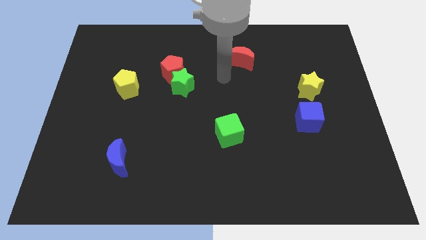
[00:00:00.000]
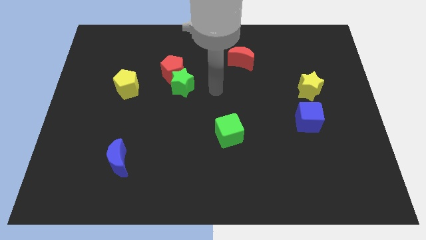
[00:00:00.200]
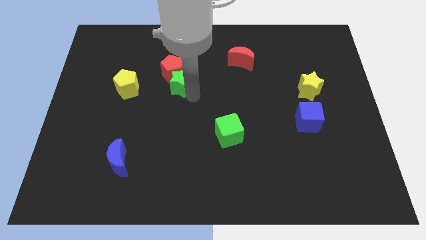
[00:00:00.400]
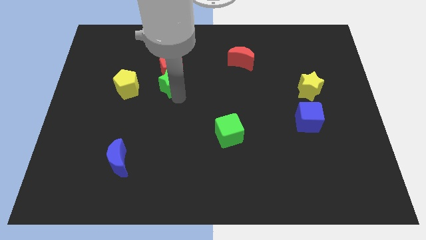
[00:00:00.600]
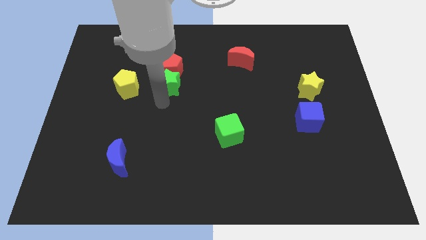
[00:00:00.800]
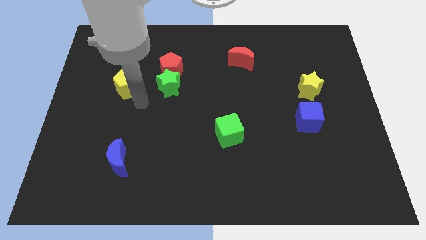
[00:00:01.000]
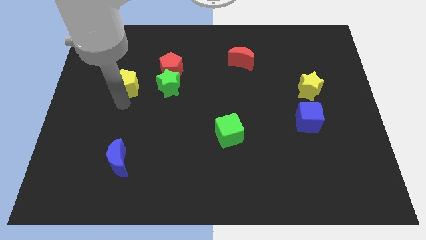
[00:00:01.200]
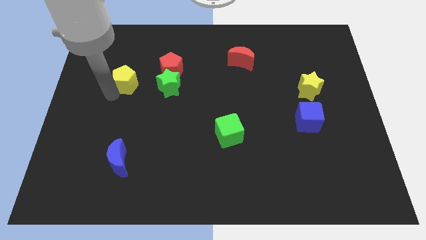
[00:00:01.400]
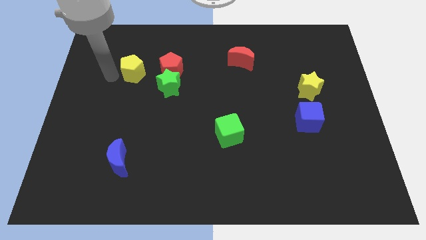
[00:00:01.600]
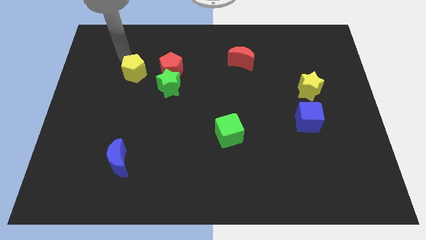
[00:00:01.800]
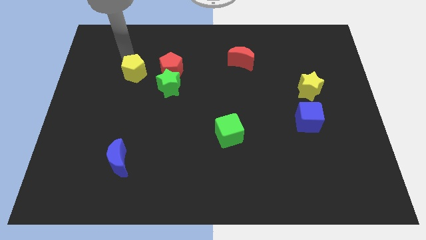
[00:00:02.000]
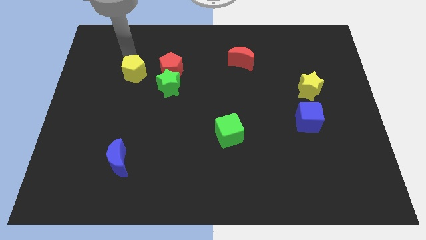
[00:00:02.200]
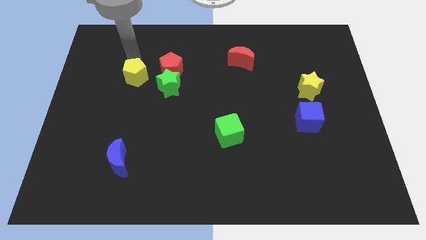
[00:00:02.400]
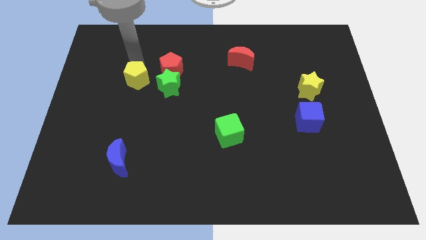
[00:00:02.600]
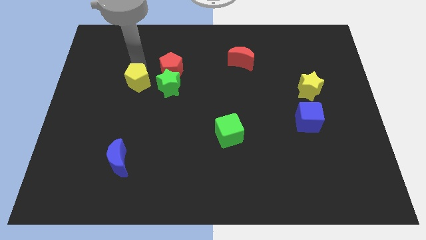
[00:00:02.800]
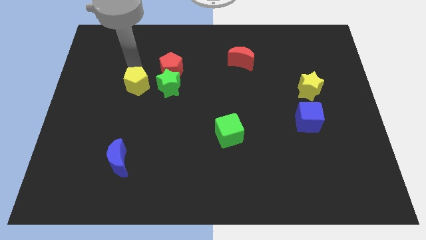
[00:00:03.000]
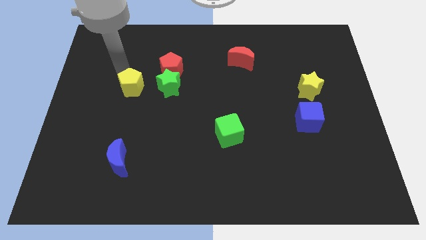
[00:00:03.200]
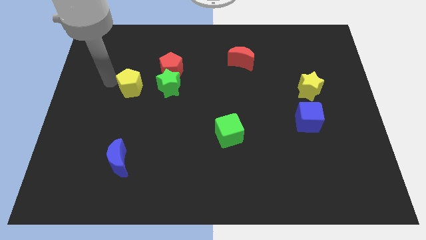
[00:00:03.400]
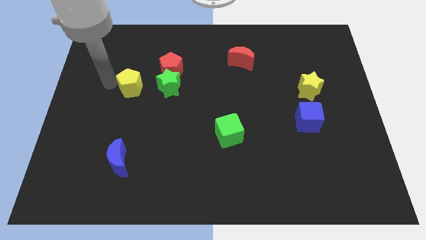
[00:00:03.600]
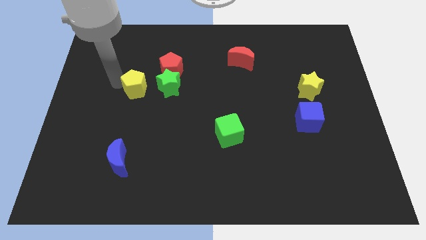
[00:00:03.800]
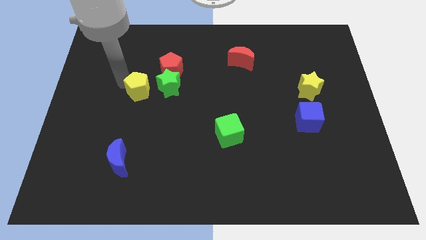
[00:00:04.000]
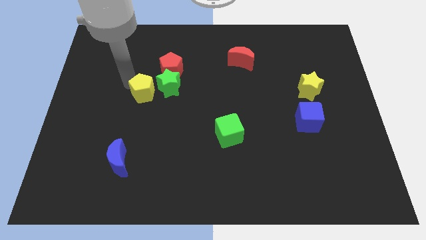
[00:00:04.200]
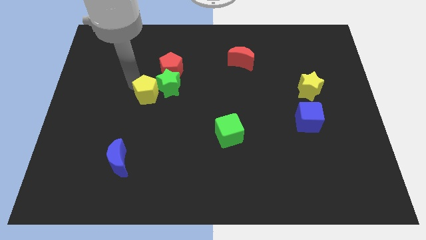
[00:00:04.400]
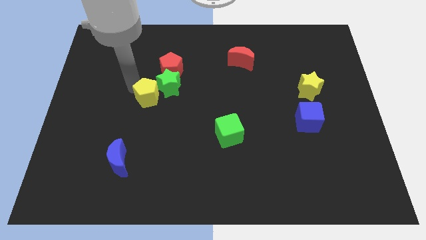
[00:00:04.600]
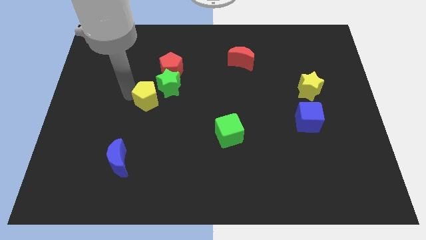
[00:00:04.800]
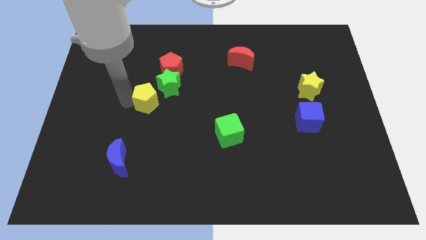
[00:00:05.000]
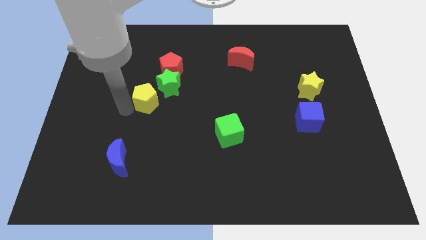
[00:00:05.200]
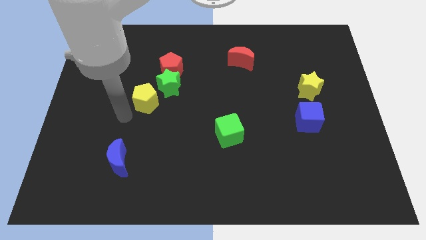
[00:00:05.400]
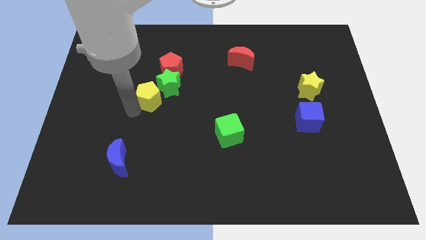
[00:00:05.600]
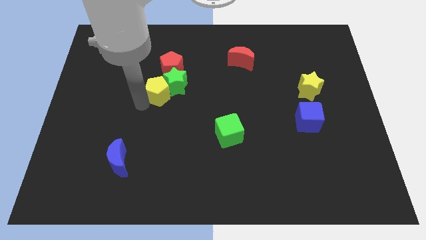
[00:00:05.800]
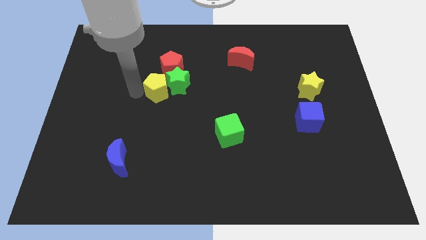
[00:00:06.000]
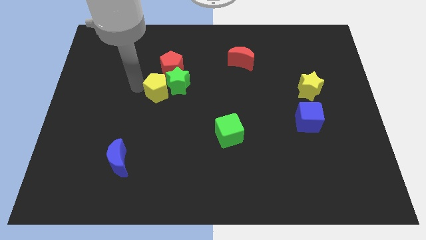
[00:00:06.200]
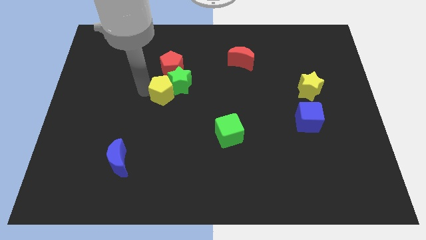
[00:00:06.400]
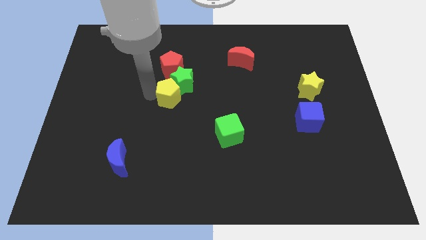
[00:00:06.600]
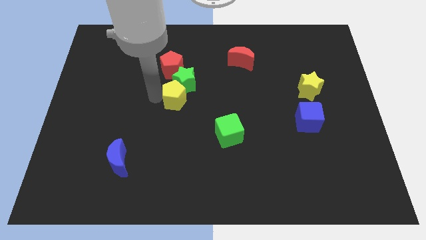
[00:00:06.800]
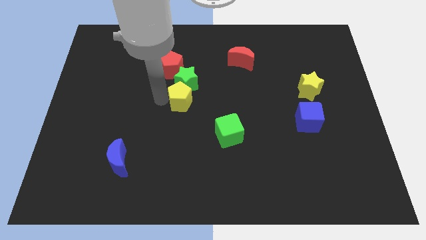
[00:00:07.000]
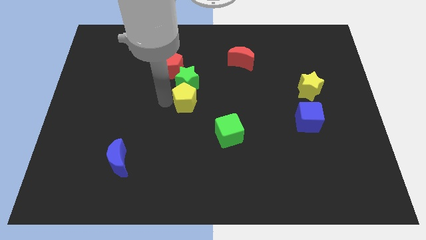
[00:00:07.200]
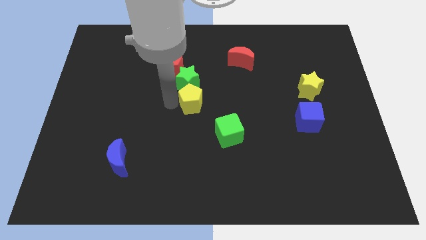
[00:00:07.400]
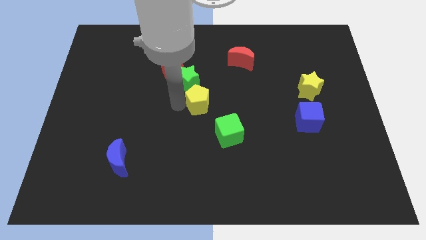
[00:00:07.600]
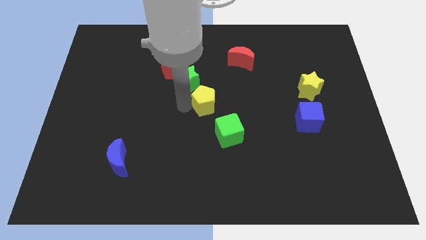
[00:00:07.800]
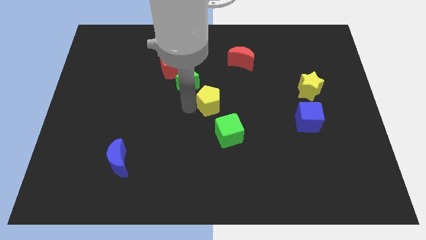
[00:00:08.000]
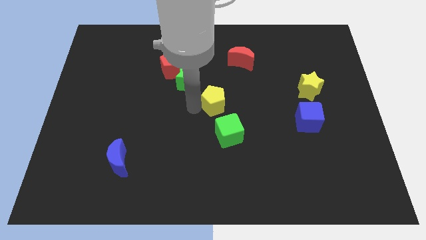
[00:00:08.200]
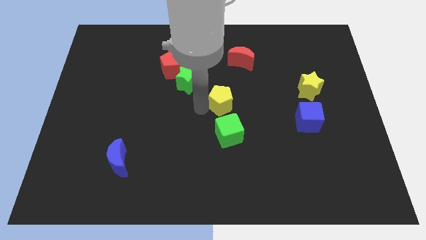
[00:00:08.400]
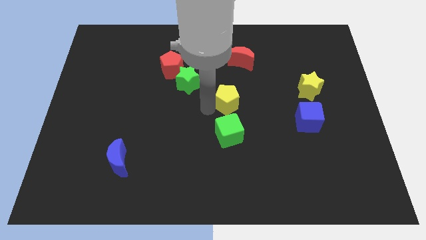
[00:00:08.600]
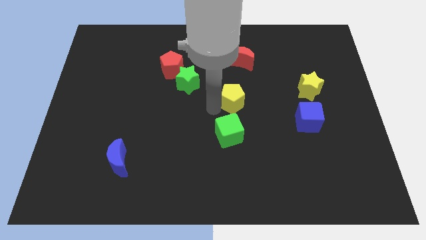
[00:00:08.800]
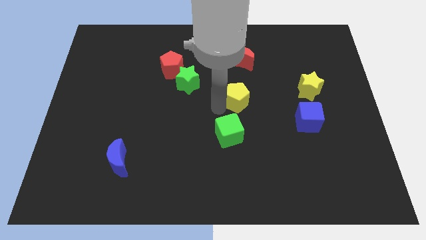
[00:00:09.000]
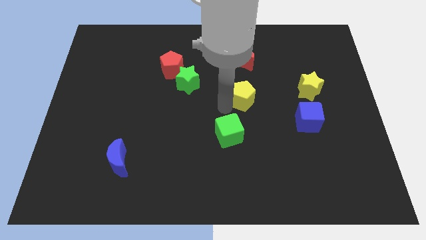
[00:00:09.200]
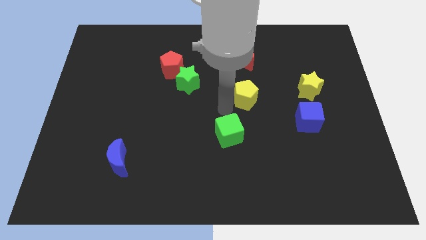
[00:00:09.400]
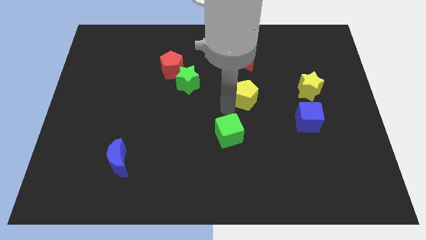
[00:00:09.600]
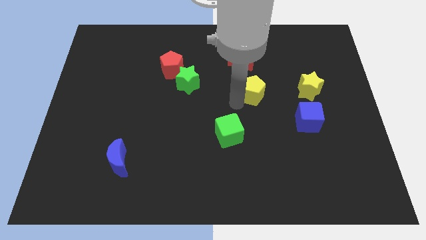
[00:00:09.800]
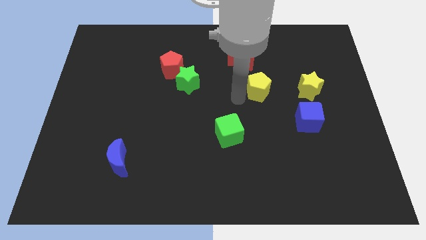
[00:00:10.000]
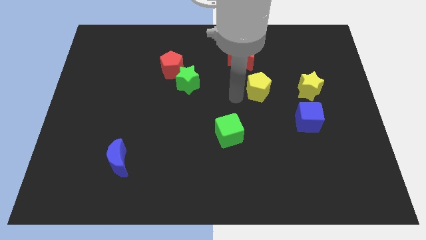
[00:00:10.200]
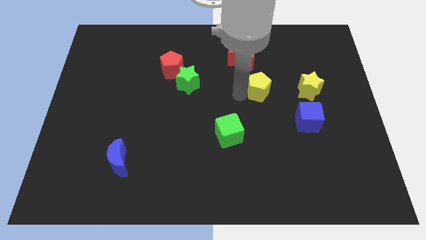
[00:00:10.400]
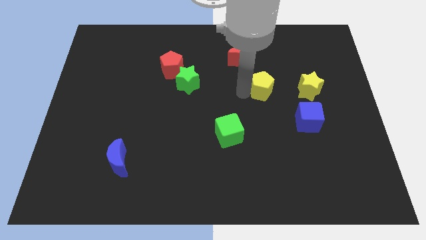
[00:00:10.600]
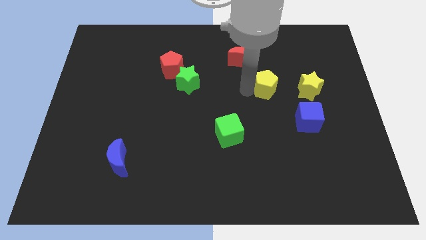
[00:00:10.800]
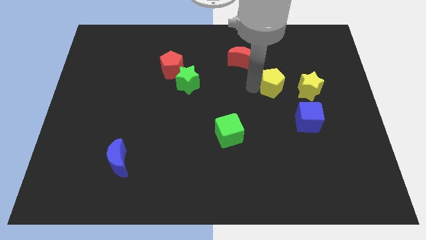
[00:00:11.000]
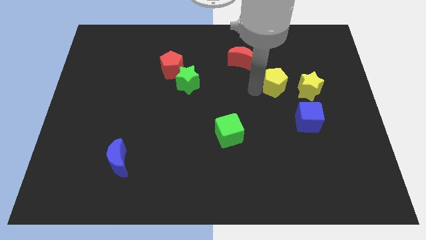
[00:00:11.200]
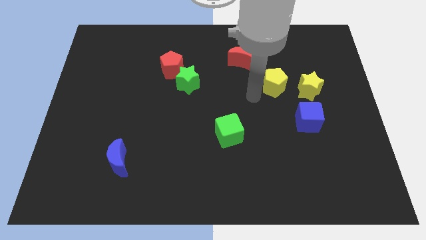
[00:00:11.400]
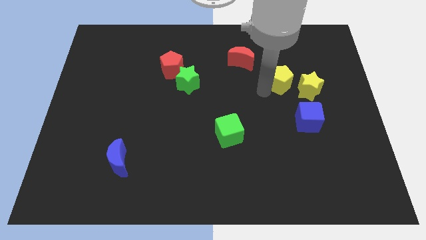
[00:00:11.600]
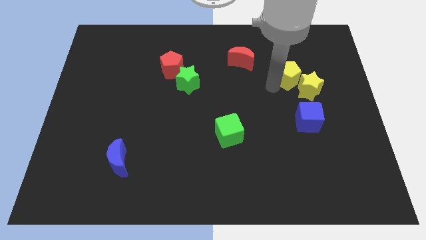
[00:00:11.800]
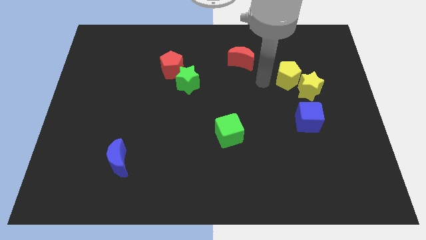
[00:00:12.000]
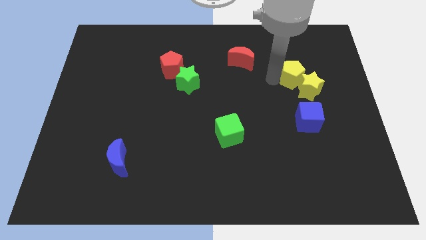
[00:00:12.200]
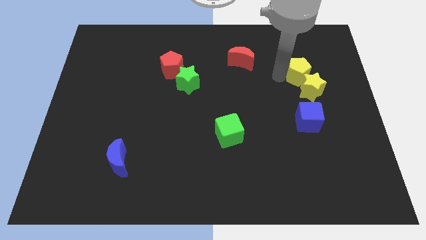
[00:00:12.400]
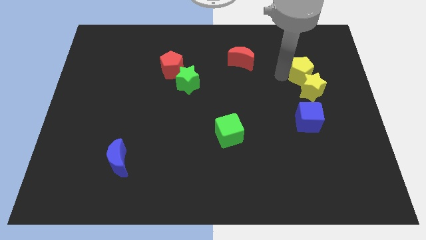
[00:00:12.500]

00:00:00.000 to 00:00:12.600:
push the yellow pentagon diagonally up and to the right of the yellow star

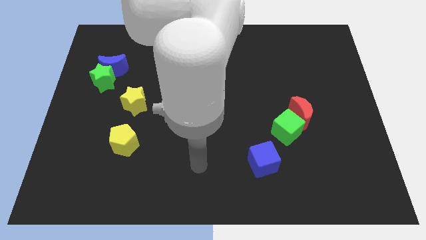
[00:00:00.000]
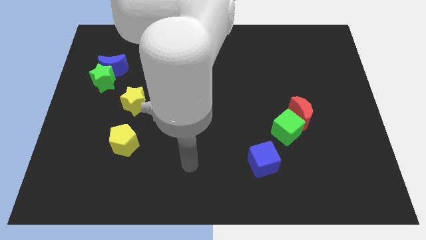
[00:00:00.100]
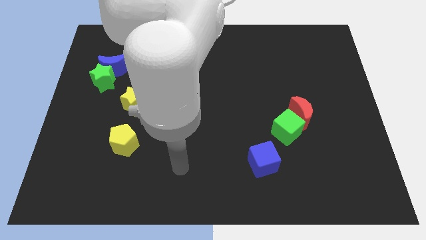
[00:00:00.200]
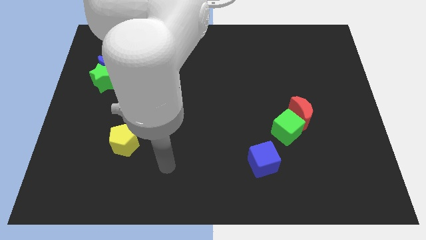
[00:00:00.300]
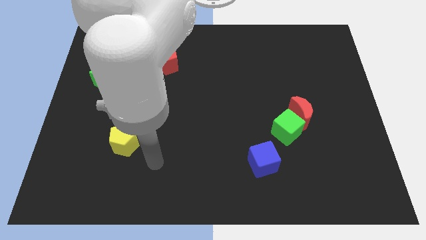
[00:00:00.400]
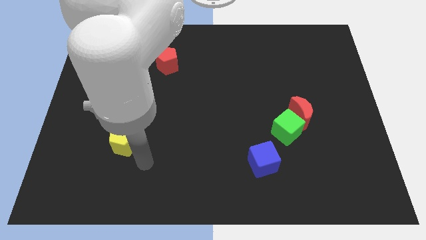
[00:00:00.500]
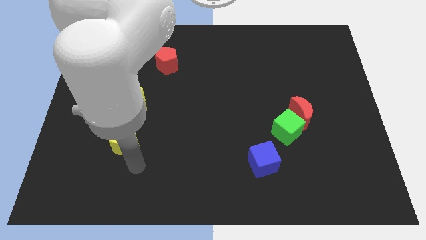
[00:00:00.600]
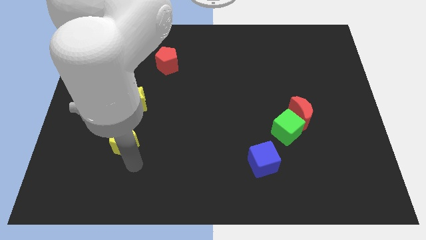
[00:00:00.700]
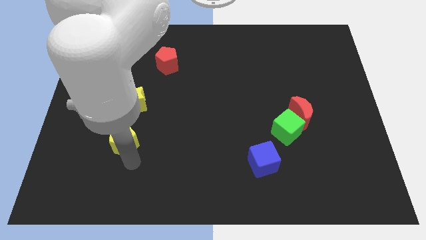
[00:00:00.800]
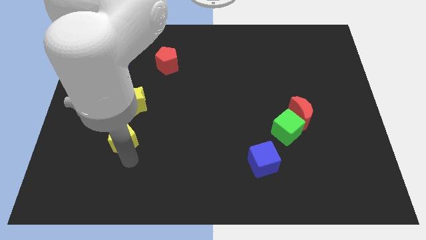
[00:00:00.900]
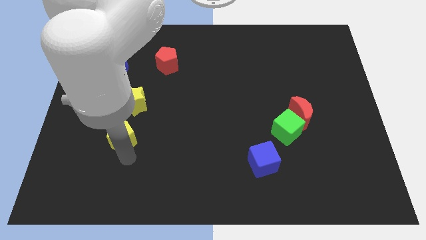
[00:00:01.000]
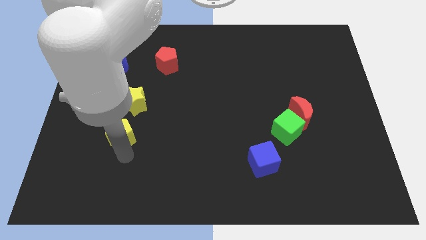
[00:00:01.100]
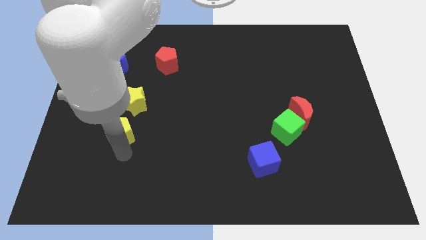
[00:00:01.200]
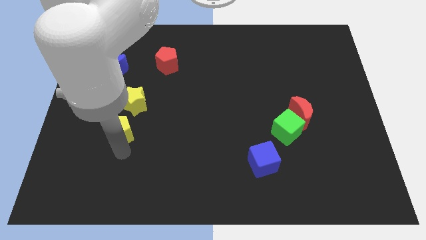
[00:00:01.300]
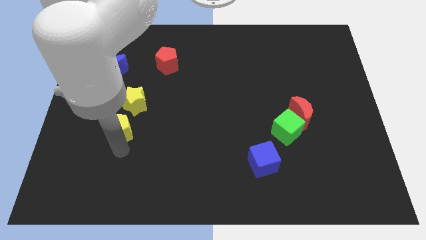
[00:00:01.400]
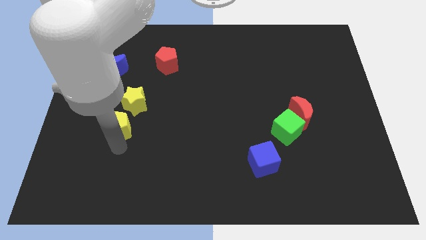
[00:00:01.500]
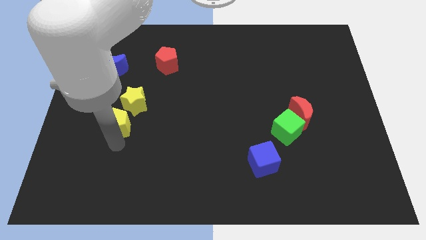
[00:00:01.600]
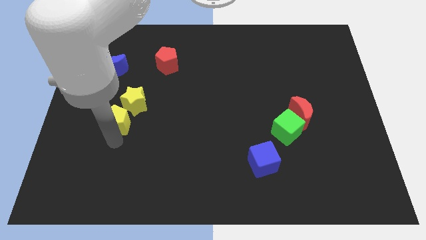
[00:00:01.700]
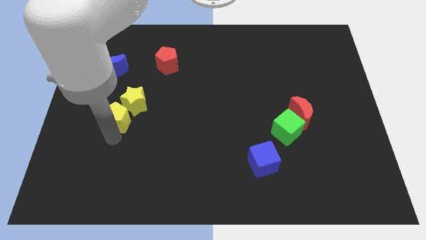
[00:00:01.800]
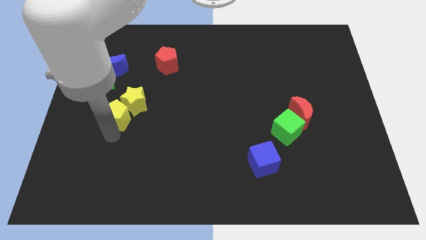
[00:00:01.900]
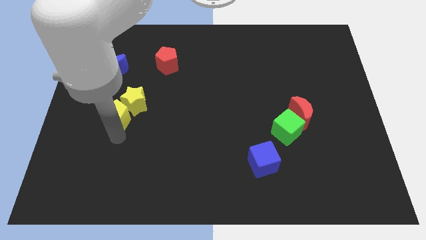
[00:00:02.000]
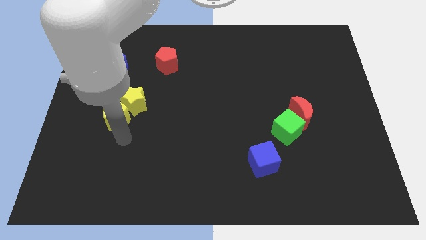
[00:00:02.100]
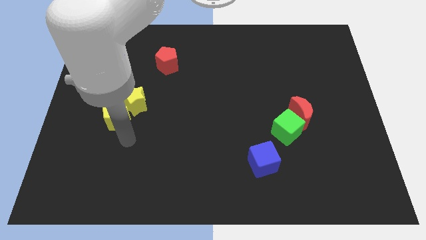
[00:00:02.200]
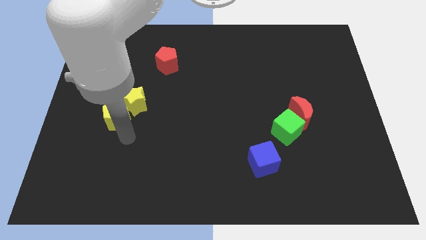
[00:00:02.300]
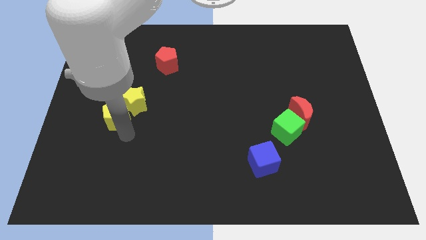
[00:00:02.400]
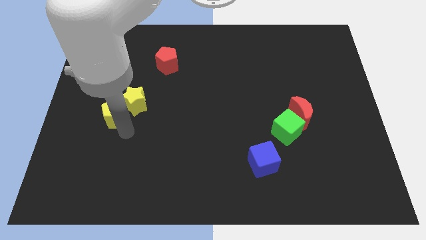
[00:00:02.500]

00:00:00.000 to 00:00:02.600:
push the yellow pentagon to the bottom of the blue moon
